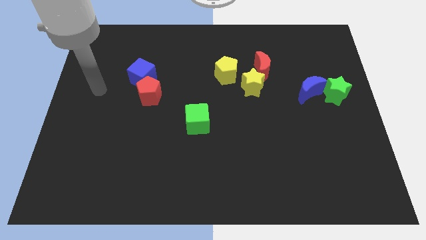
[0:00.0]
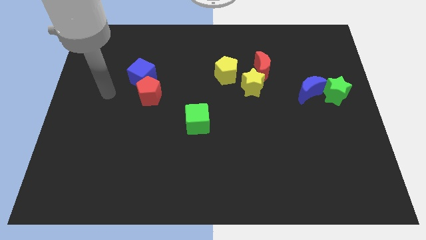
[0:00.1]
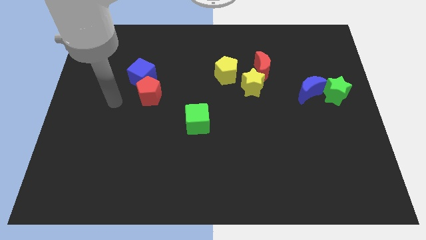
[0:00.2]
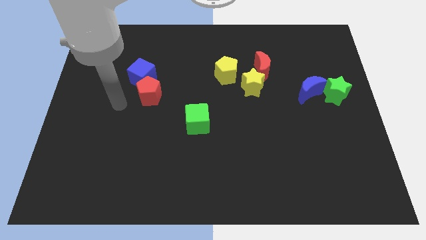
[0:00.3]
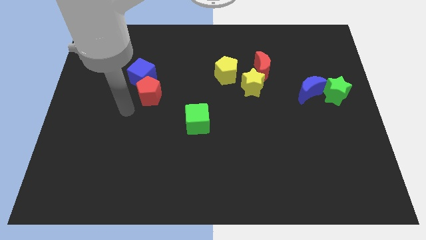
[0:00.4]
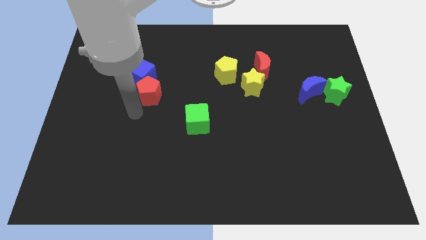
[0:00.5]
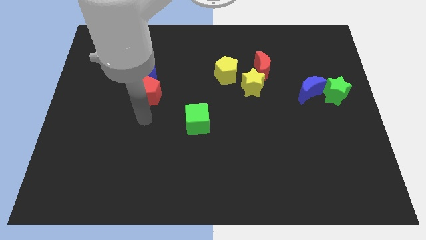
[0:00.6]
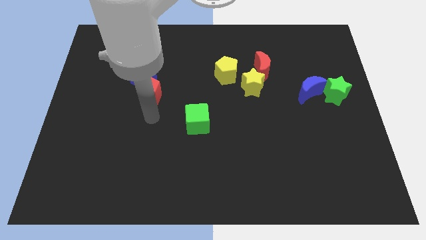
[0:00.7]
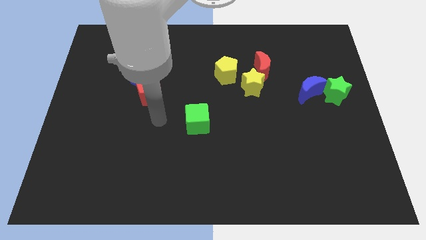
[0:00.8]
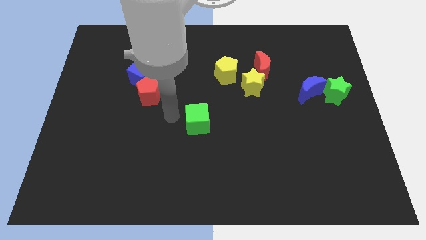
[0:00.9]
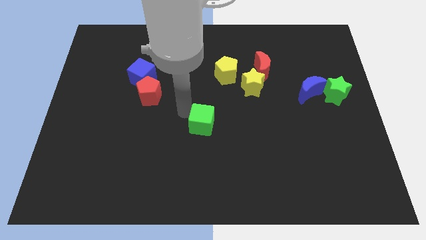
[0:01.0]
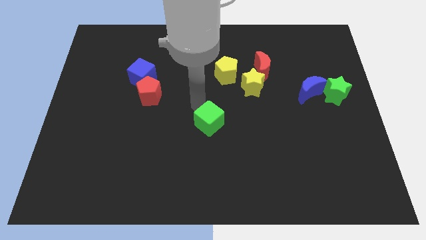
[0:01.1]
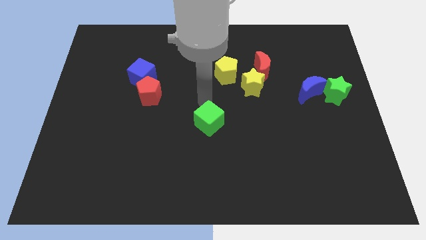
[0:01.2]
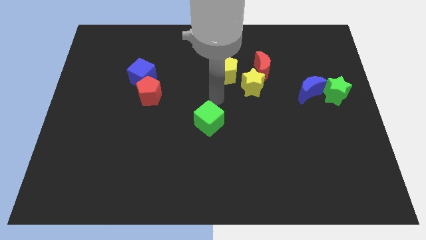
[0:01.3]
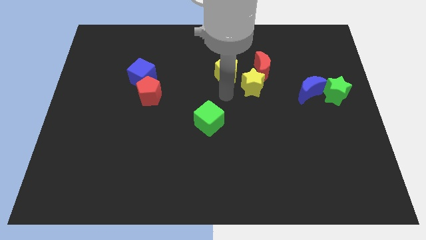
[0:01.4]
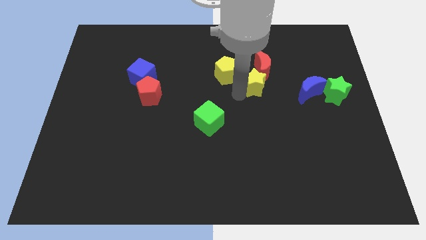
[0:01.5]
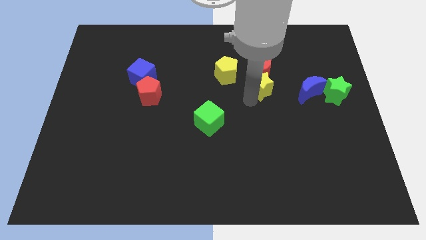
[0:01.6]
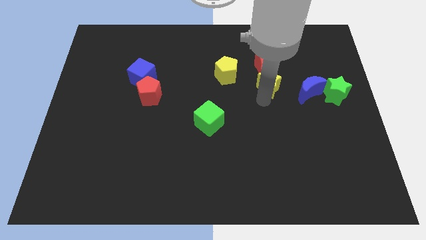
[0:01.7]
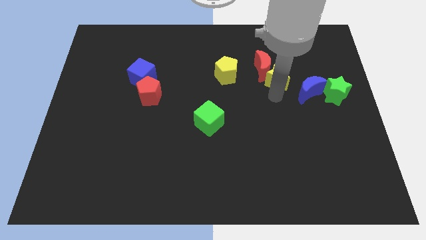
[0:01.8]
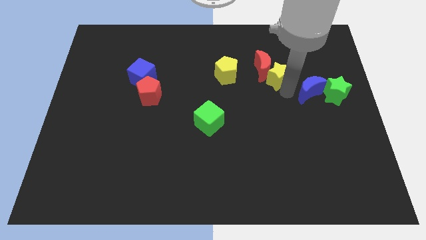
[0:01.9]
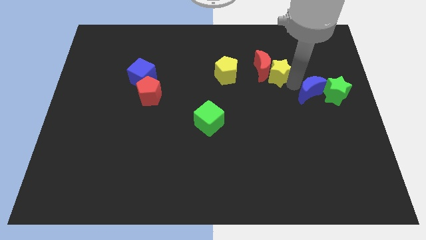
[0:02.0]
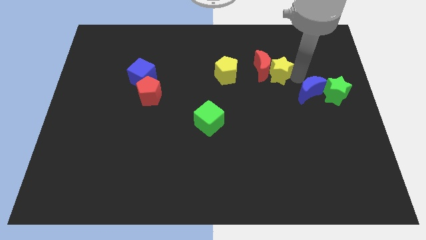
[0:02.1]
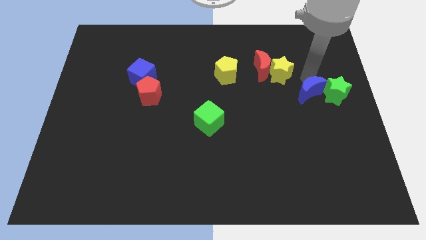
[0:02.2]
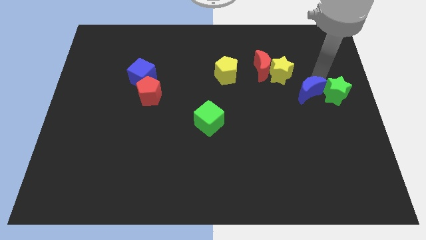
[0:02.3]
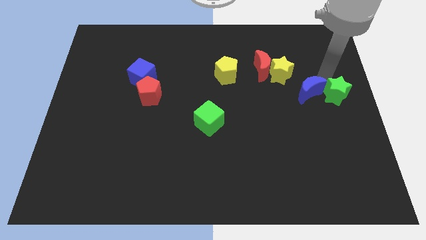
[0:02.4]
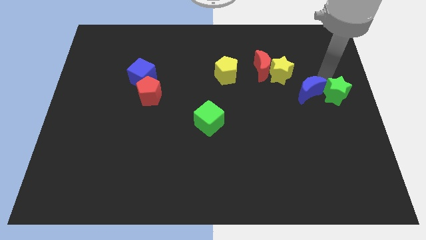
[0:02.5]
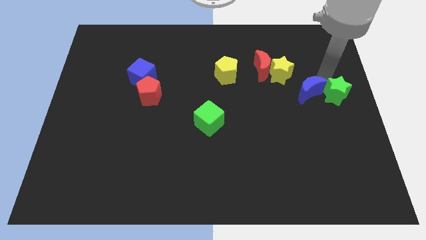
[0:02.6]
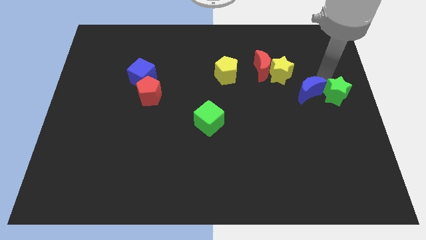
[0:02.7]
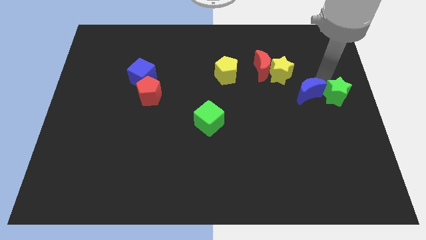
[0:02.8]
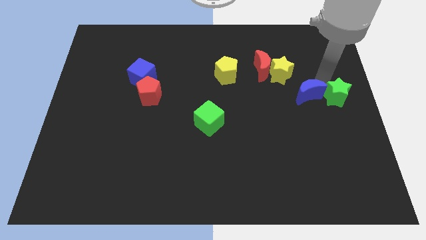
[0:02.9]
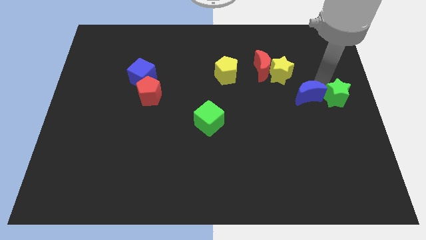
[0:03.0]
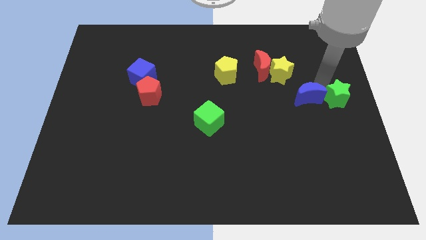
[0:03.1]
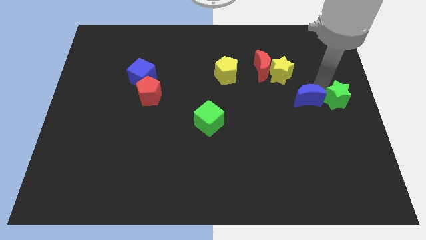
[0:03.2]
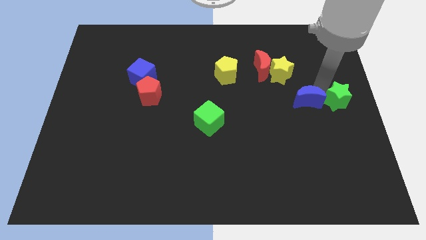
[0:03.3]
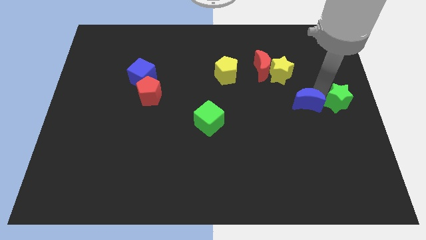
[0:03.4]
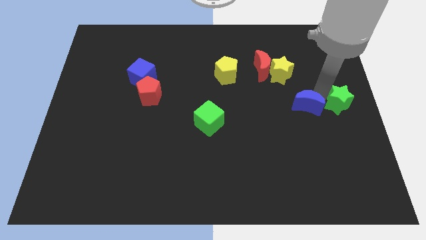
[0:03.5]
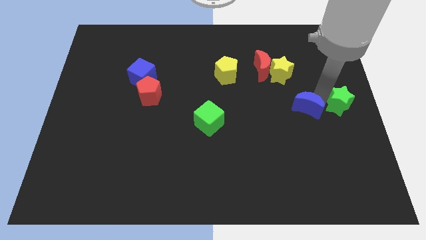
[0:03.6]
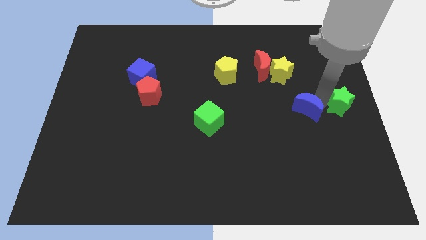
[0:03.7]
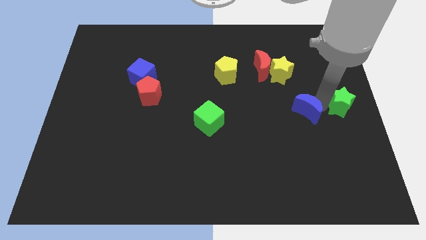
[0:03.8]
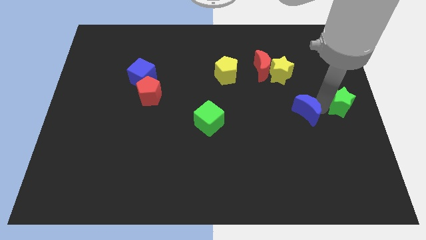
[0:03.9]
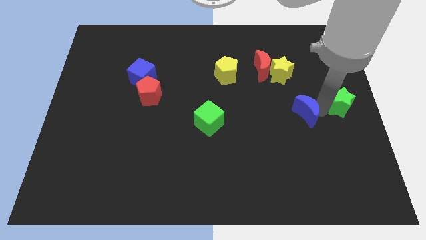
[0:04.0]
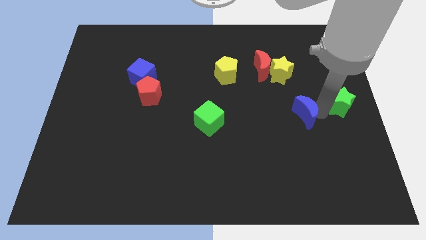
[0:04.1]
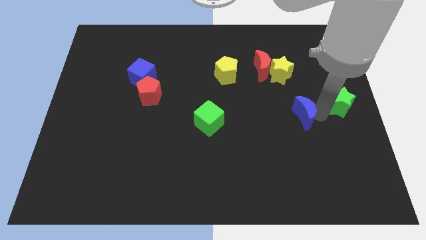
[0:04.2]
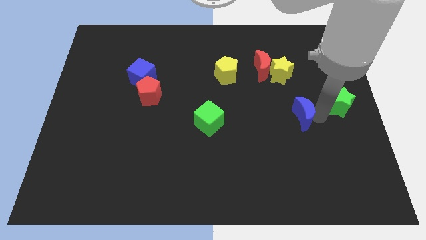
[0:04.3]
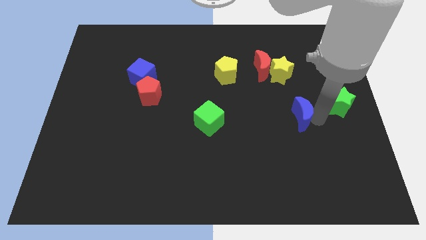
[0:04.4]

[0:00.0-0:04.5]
slightly push the blue moon downwards and left diagonally

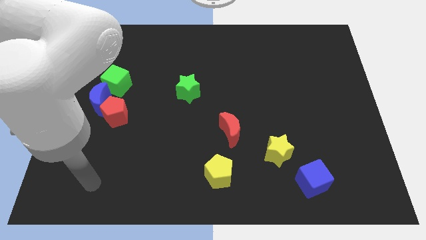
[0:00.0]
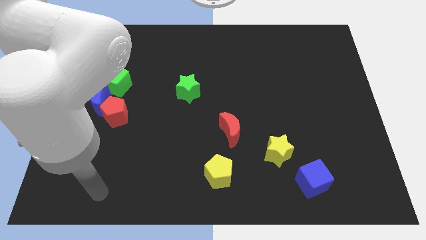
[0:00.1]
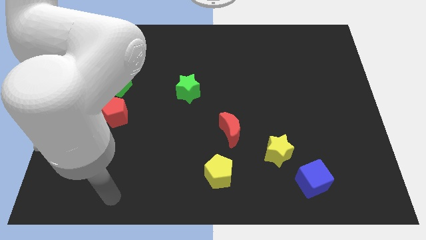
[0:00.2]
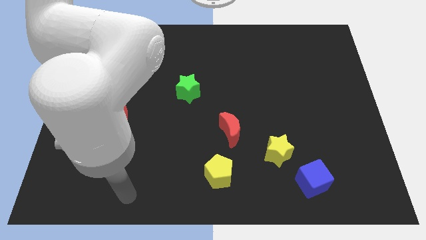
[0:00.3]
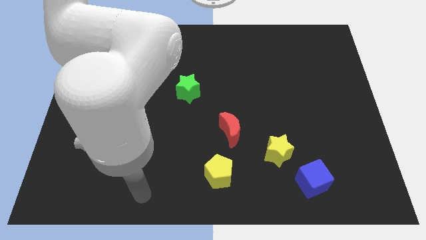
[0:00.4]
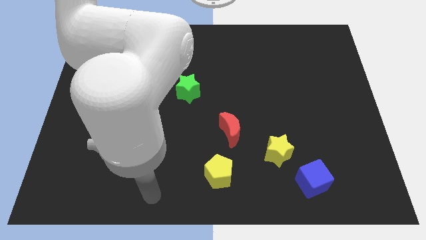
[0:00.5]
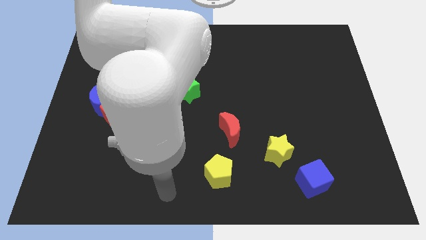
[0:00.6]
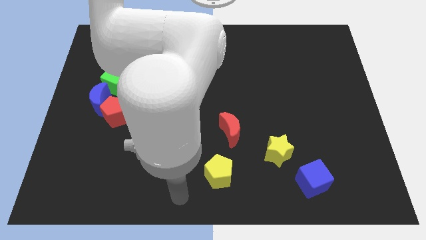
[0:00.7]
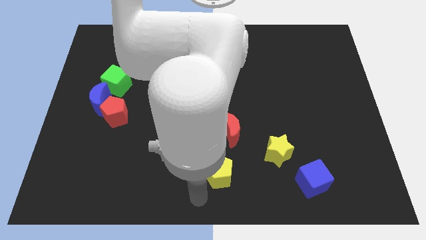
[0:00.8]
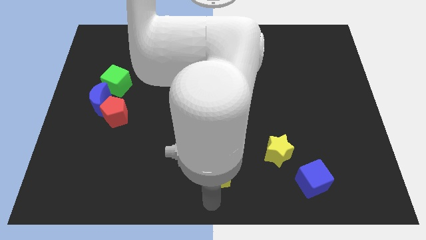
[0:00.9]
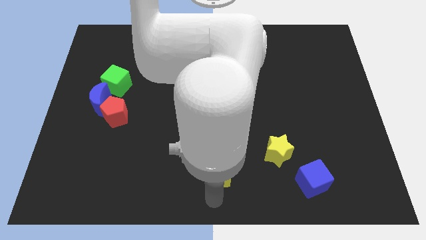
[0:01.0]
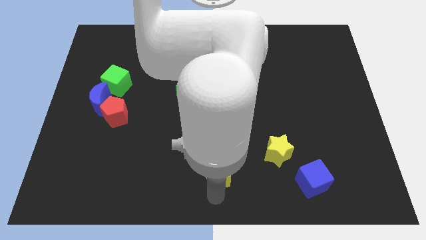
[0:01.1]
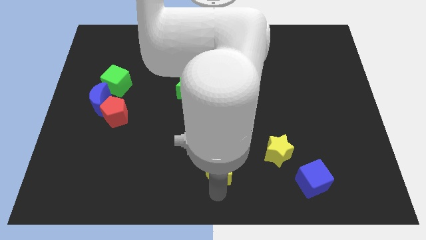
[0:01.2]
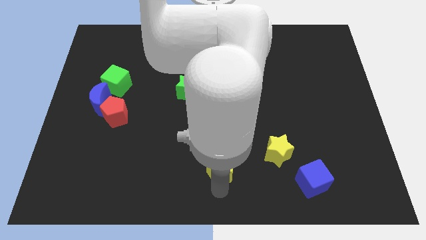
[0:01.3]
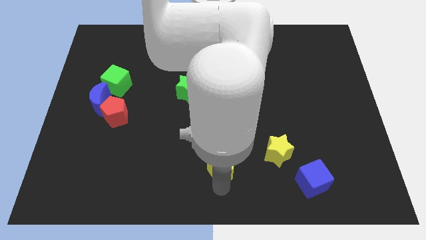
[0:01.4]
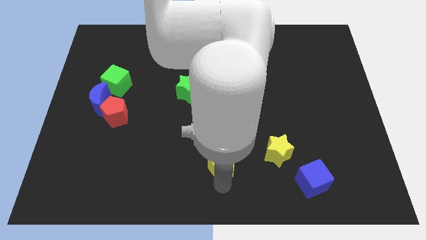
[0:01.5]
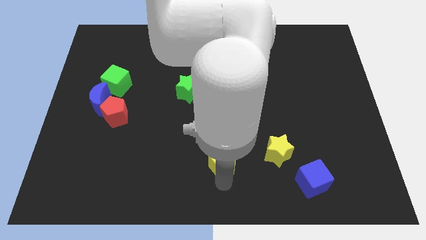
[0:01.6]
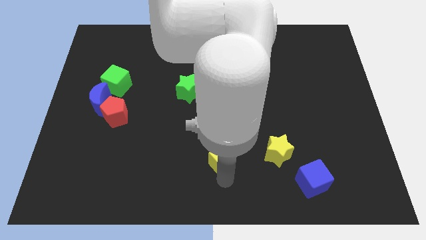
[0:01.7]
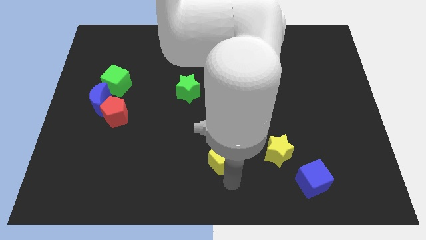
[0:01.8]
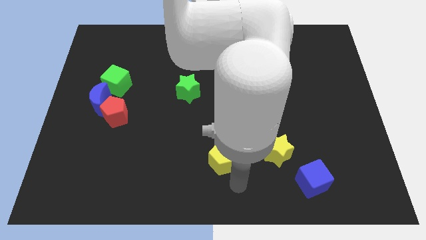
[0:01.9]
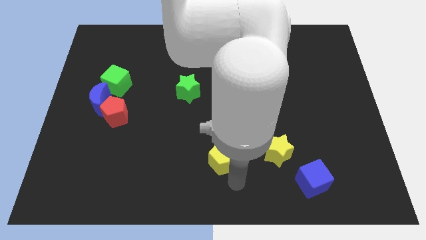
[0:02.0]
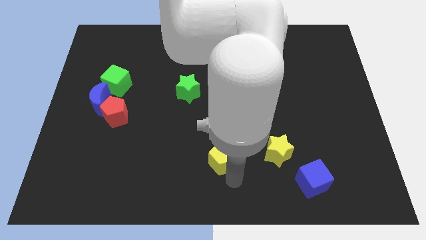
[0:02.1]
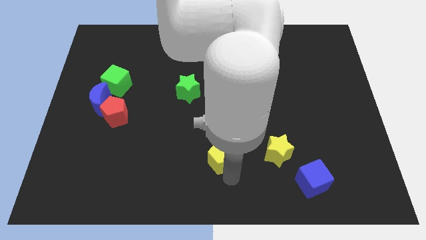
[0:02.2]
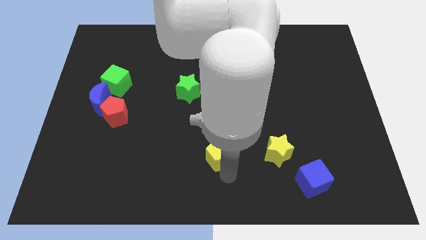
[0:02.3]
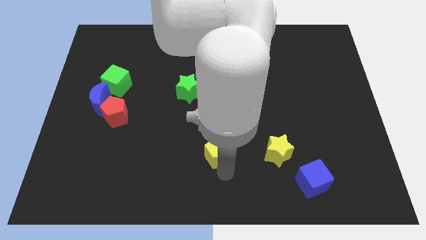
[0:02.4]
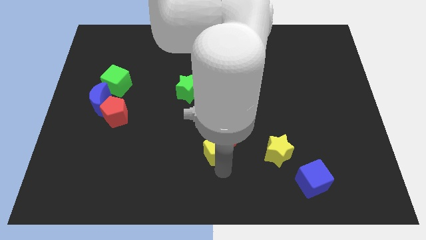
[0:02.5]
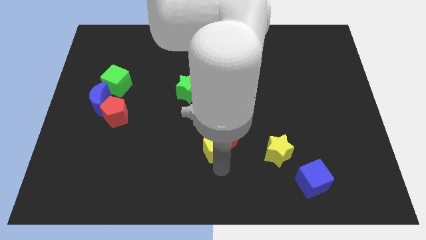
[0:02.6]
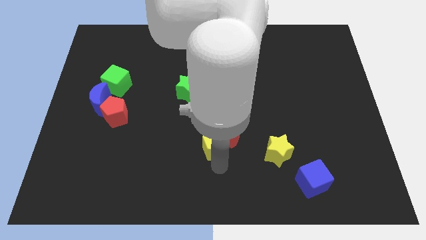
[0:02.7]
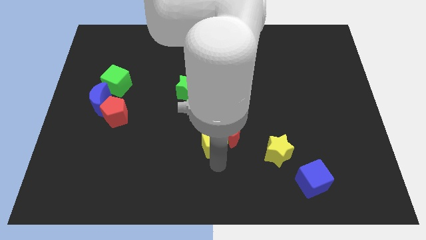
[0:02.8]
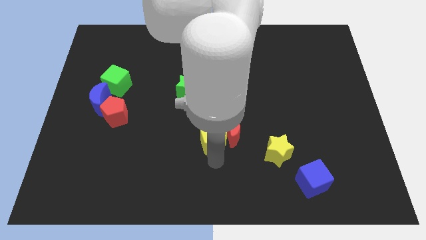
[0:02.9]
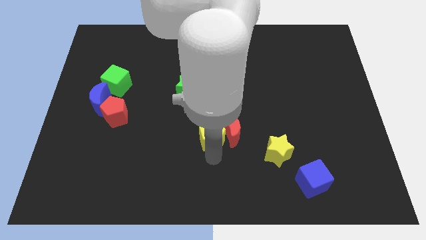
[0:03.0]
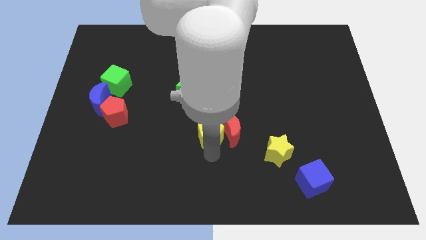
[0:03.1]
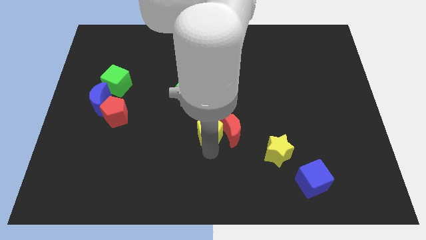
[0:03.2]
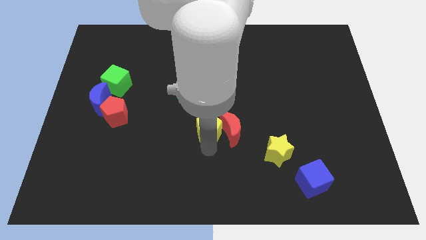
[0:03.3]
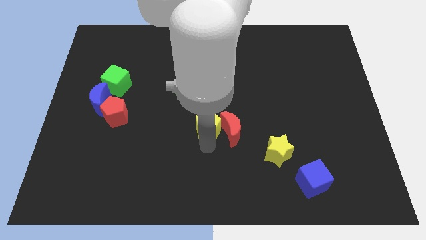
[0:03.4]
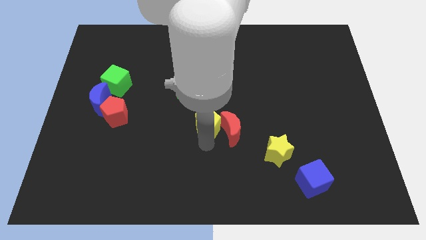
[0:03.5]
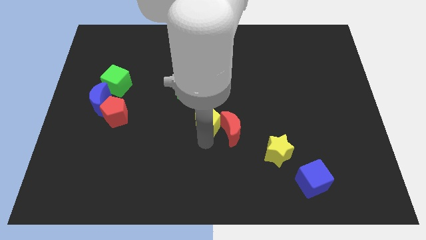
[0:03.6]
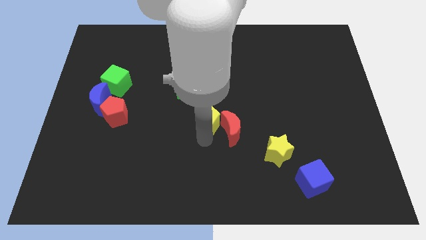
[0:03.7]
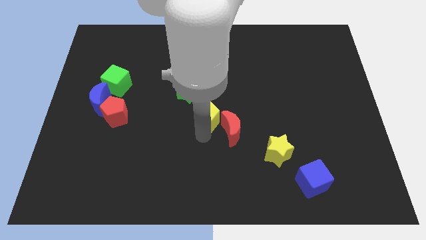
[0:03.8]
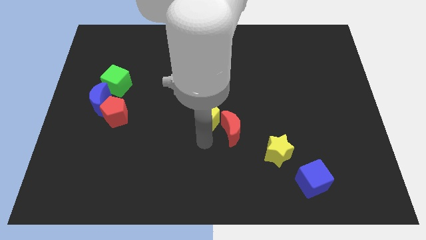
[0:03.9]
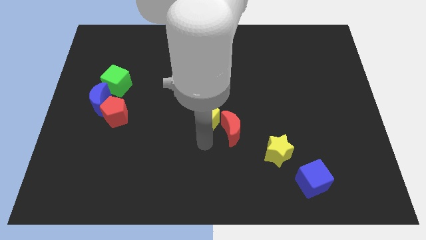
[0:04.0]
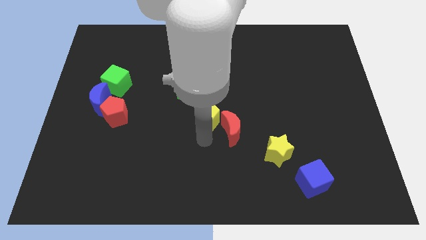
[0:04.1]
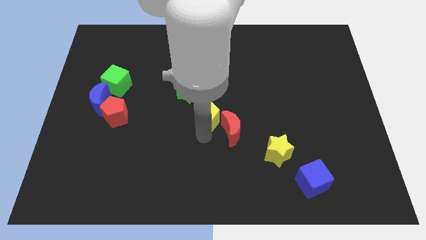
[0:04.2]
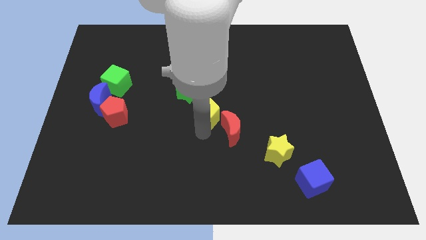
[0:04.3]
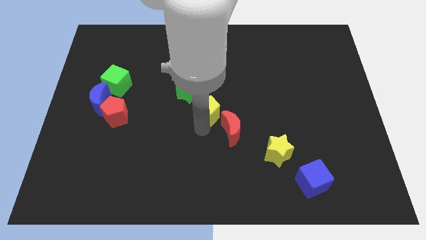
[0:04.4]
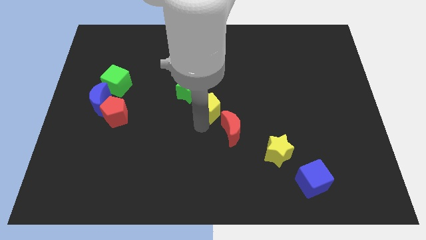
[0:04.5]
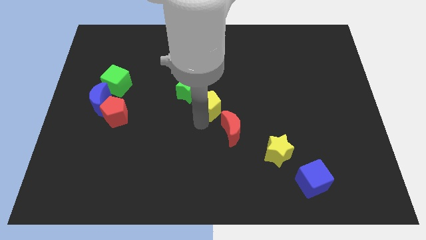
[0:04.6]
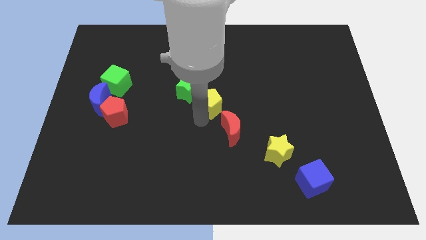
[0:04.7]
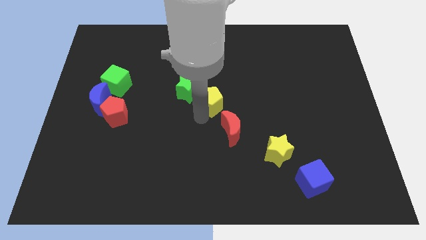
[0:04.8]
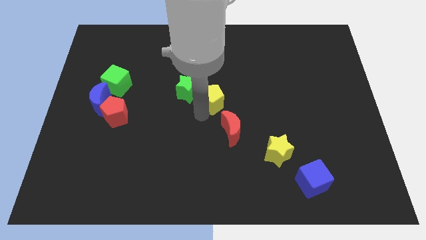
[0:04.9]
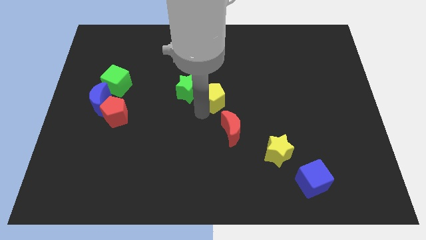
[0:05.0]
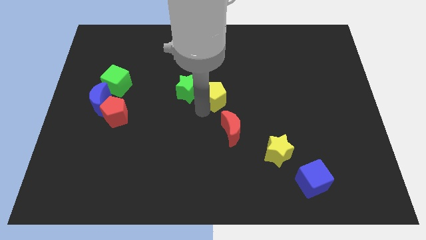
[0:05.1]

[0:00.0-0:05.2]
slide the yellow pentagon upwards
